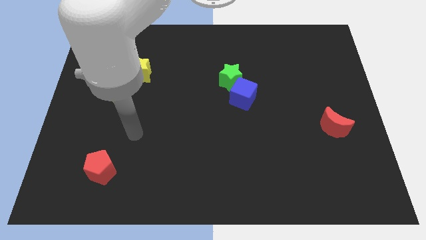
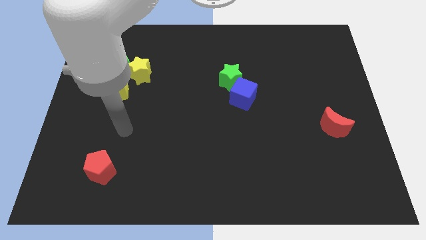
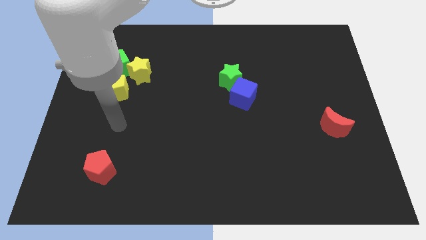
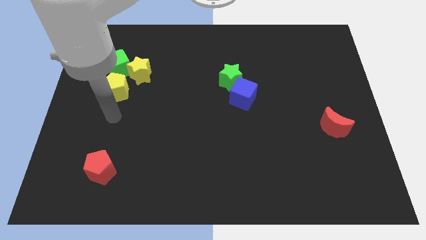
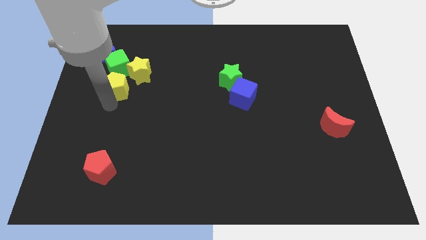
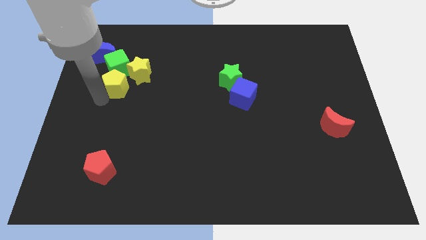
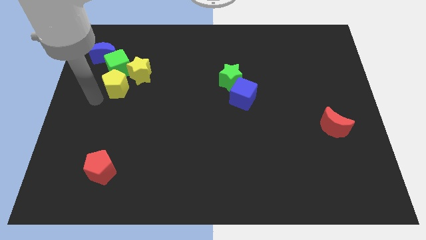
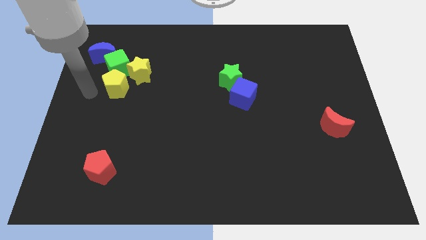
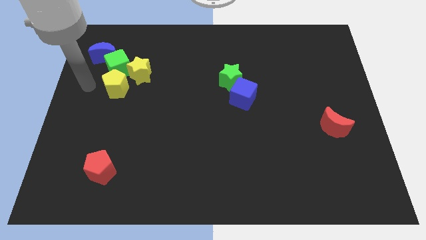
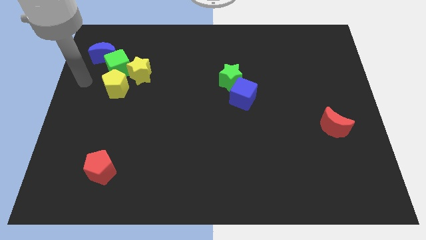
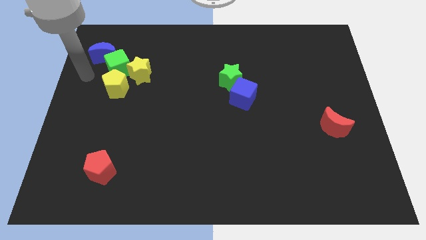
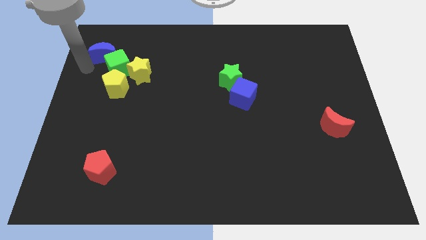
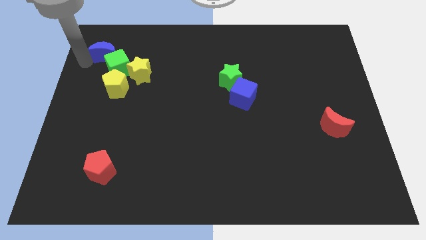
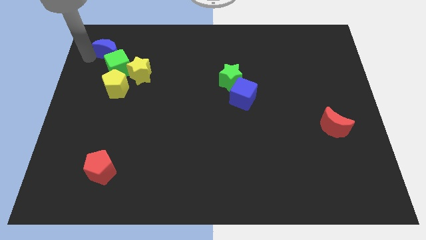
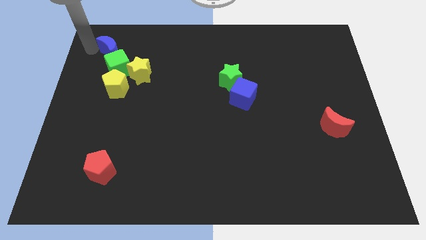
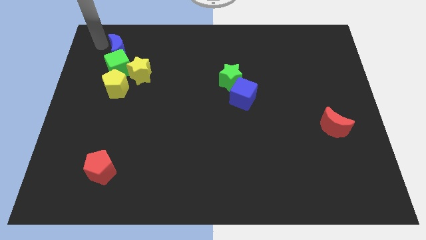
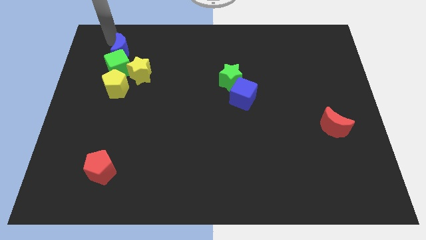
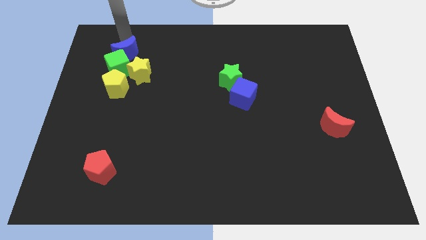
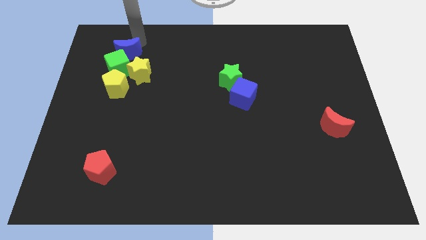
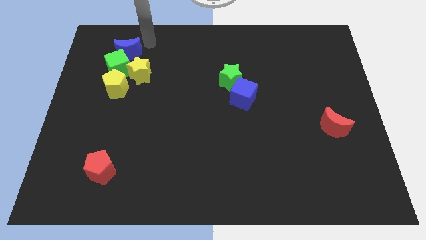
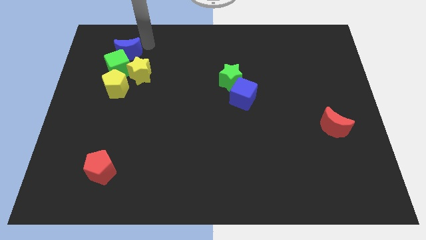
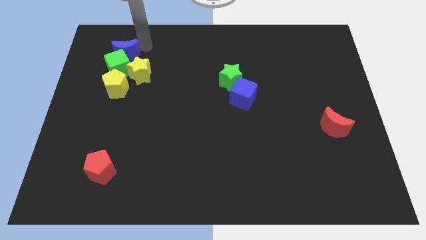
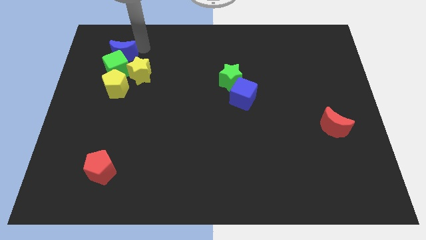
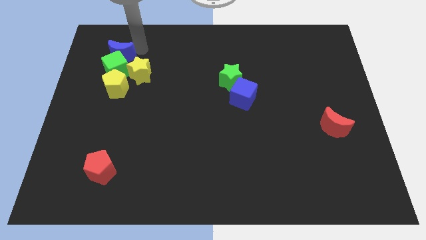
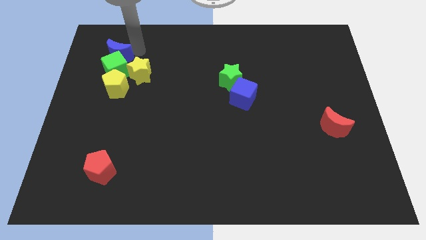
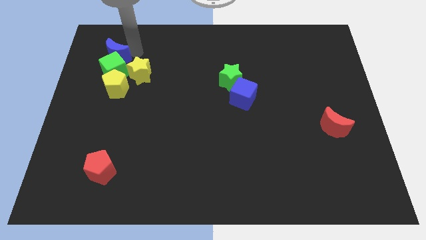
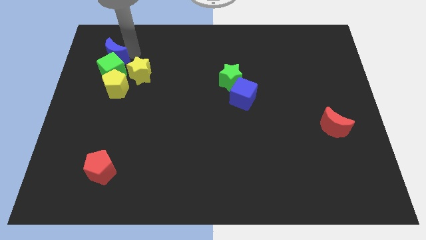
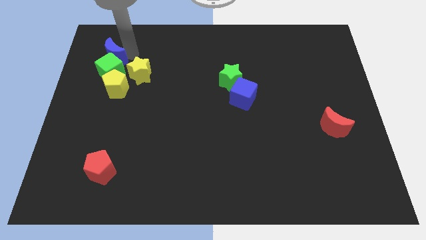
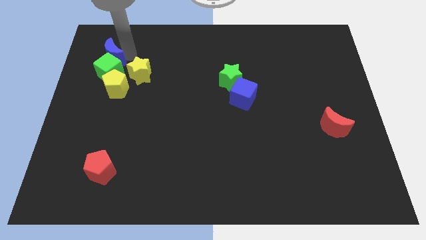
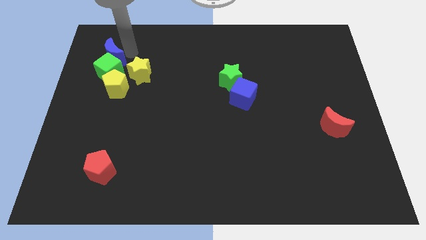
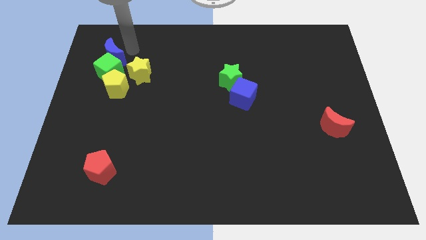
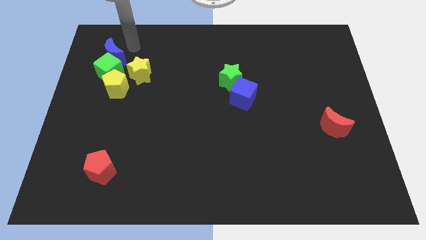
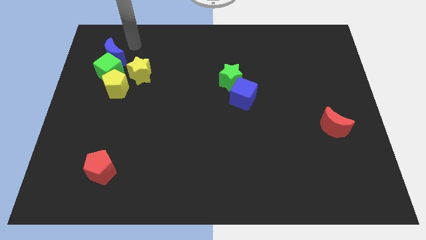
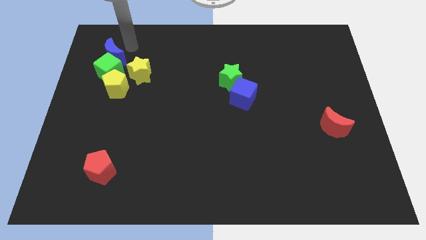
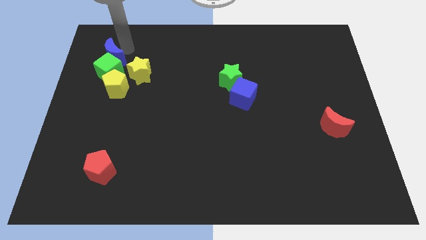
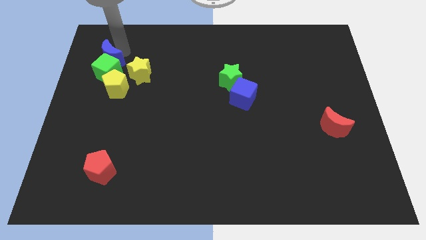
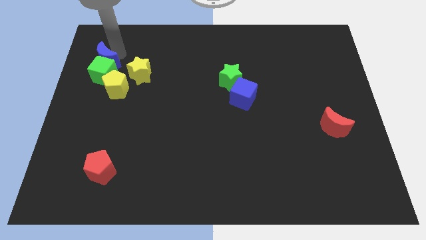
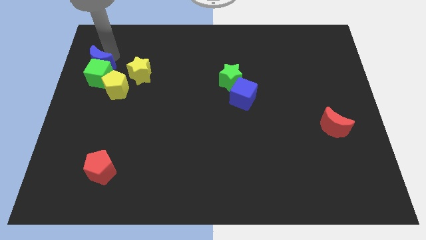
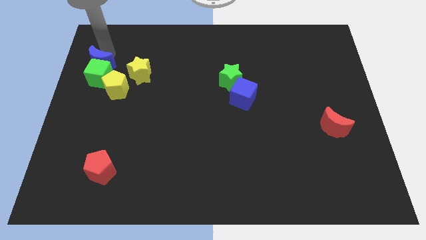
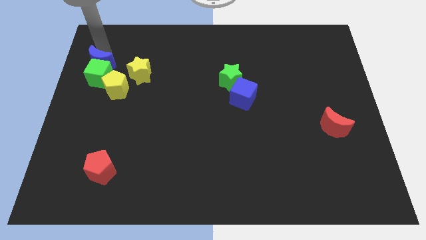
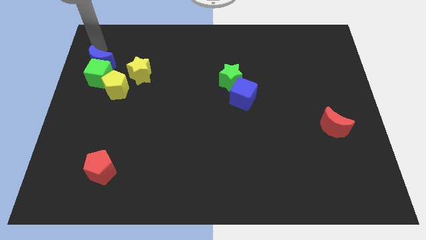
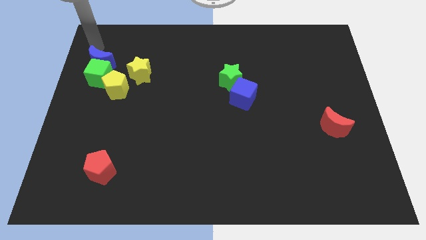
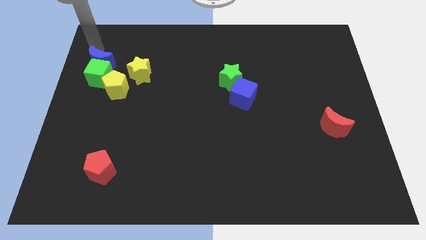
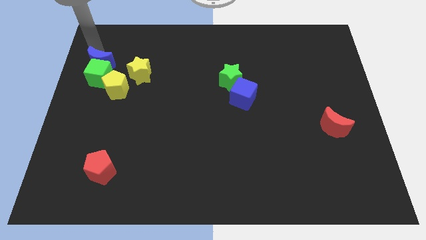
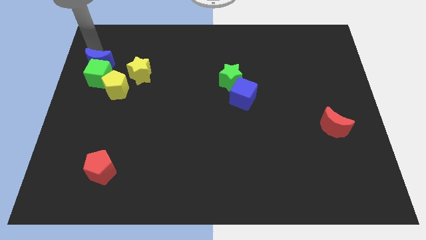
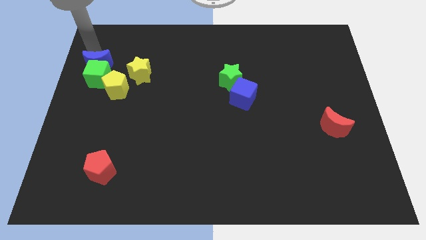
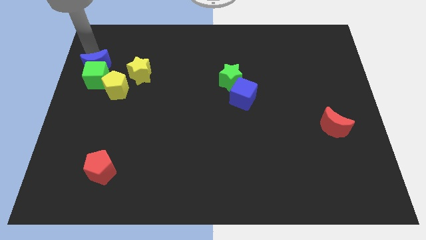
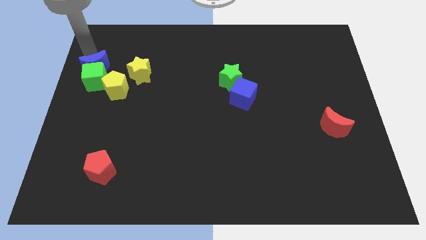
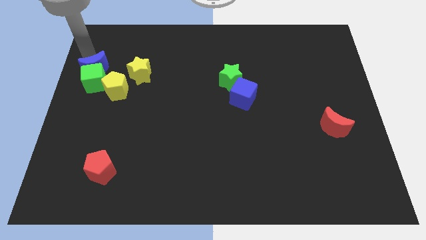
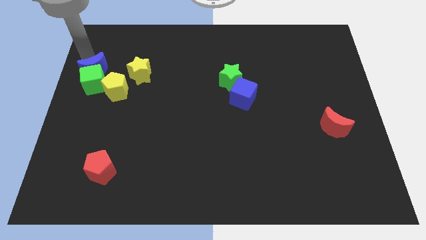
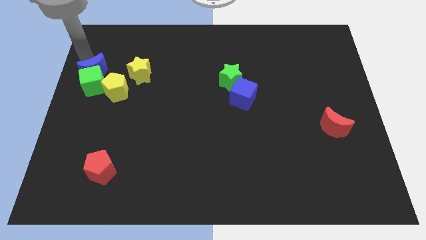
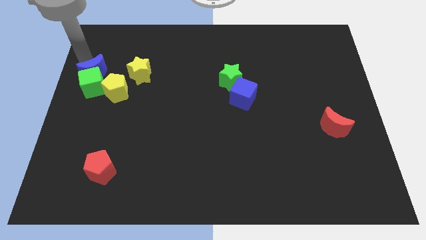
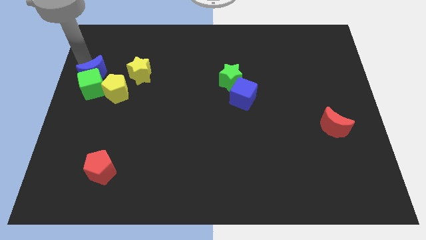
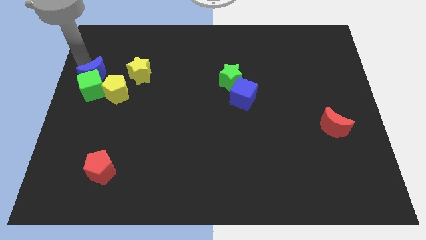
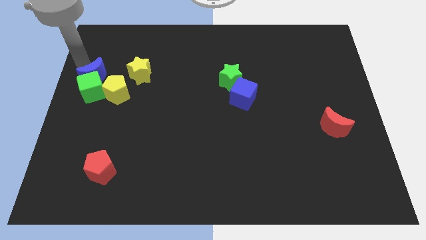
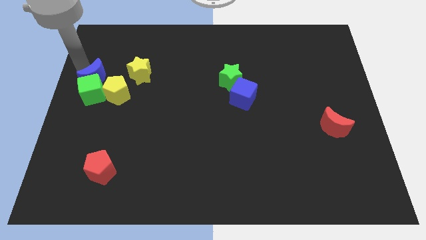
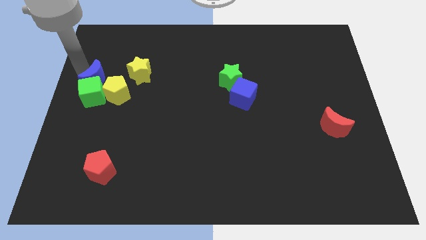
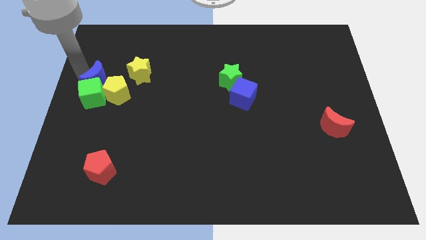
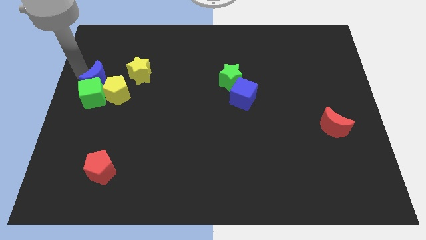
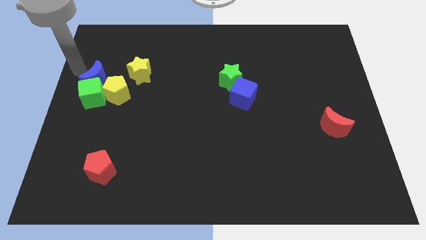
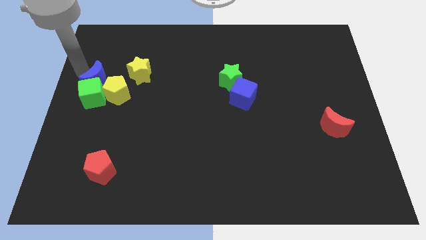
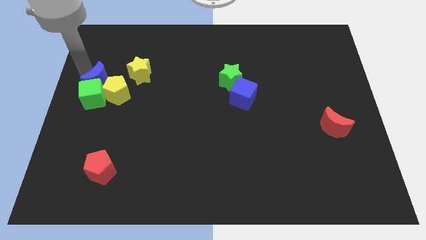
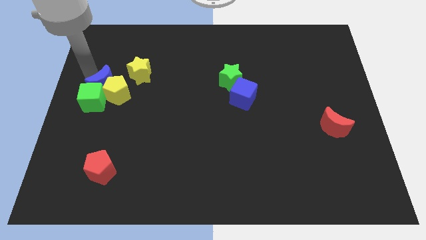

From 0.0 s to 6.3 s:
push the blue moon towards the yellow pentagon

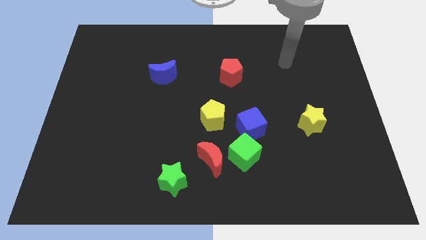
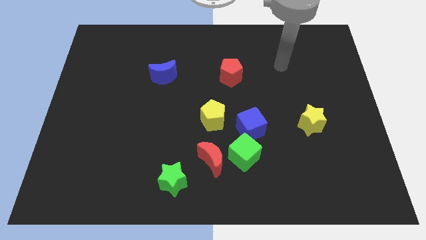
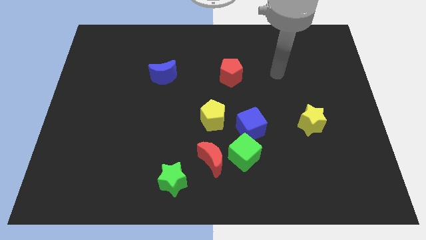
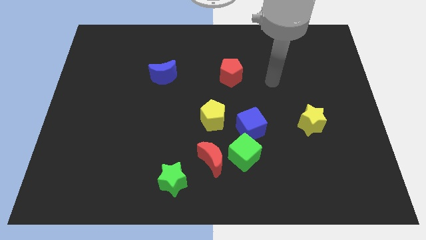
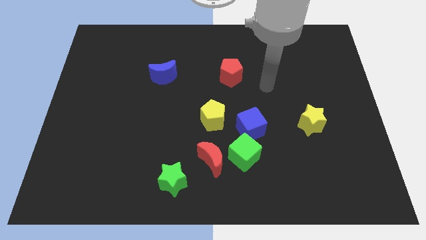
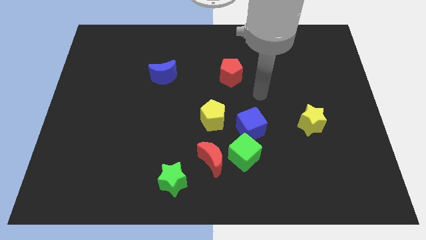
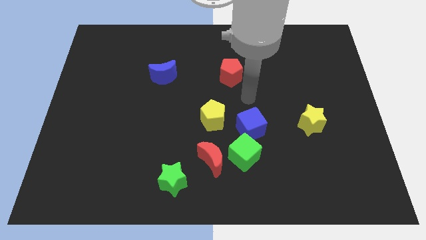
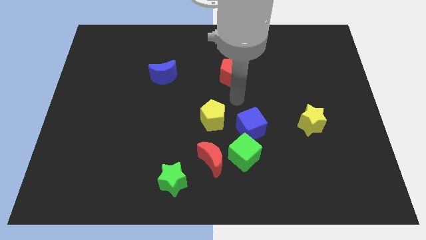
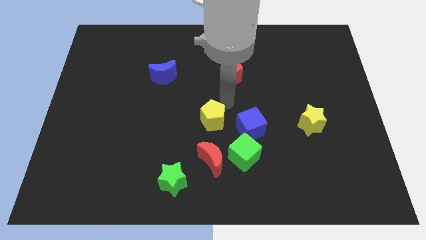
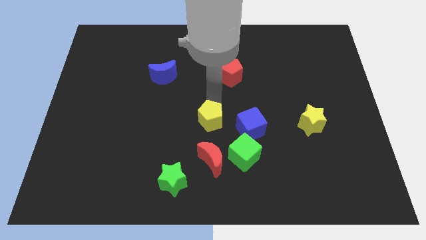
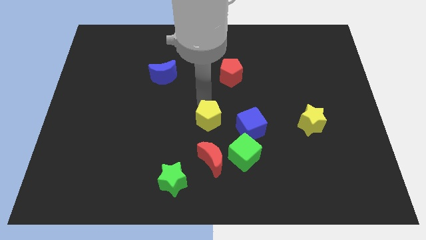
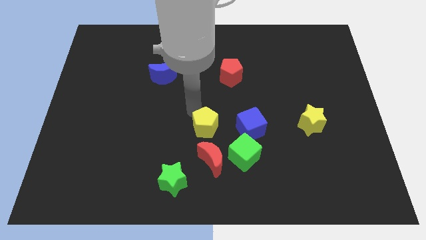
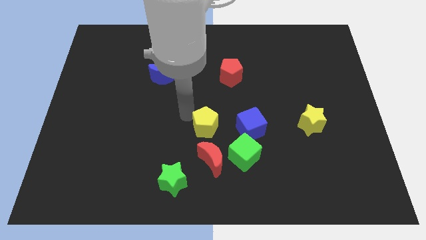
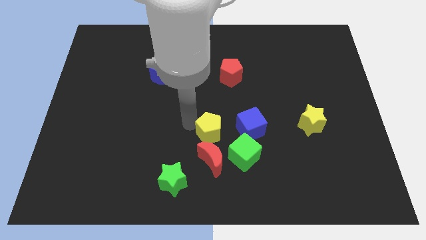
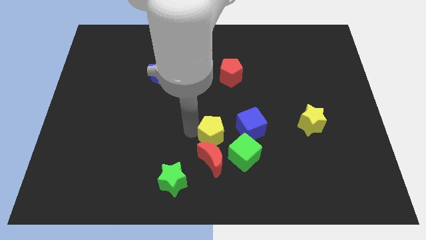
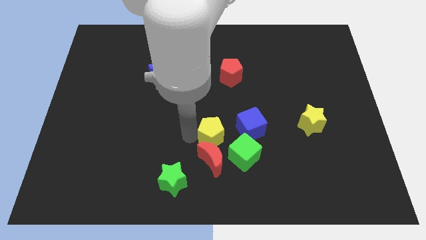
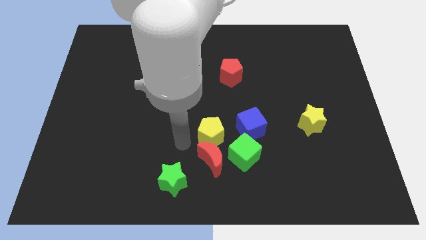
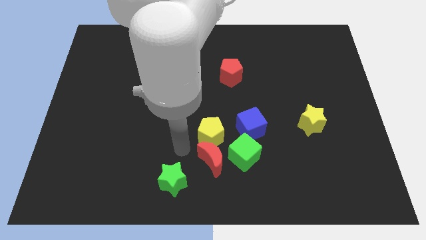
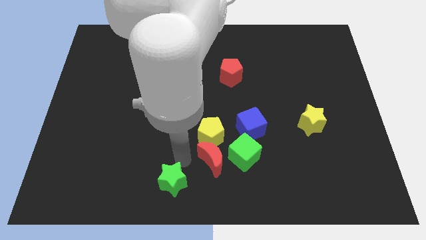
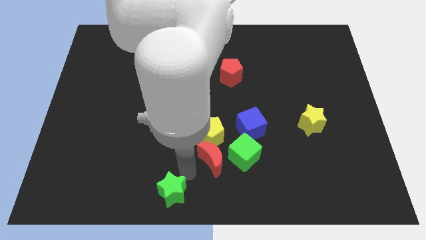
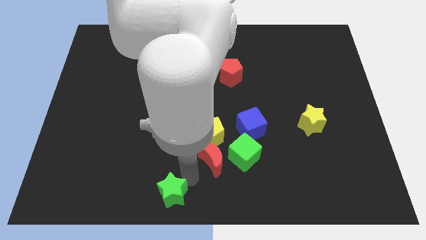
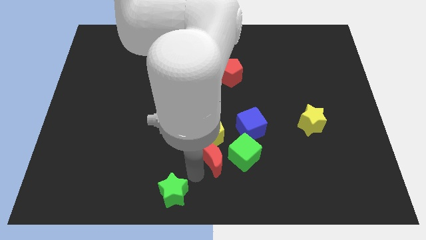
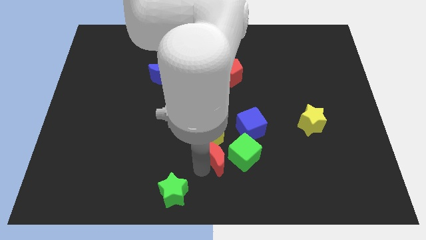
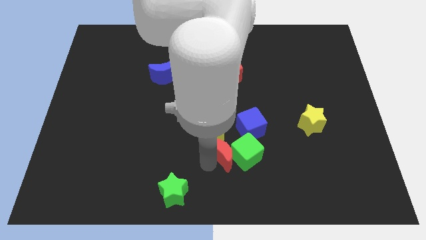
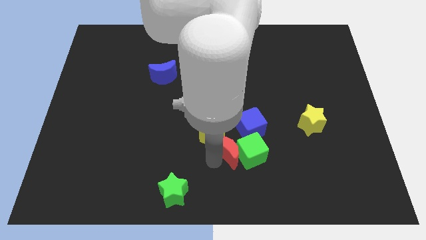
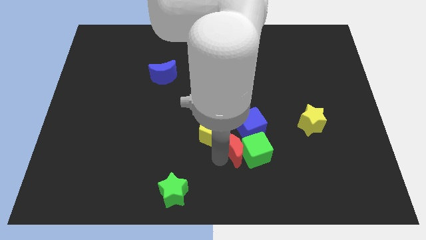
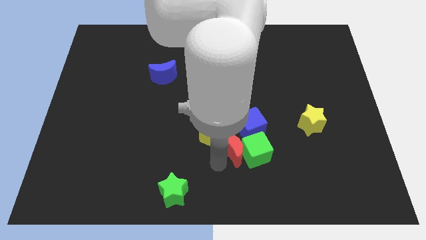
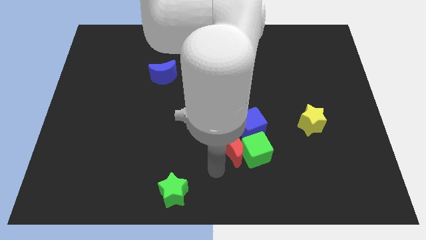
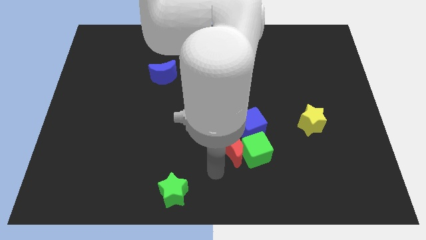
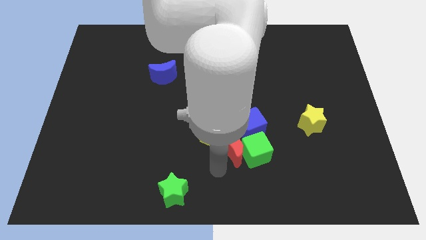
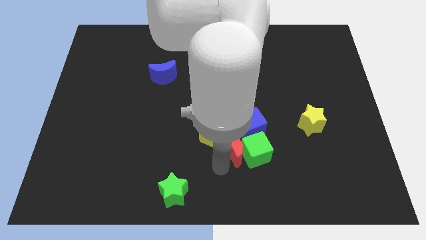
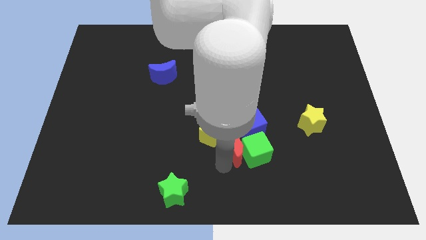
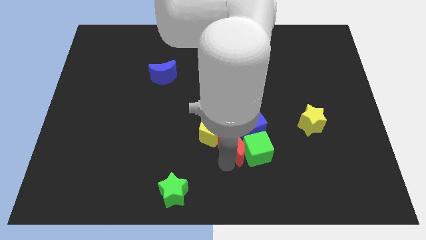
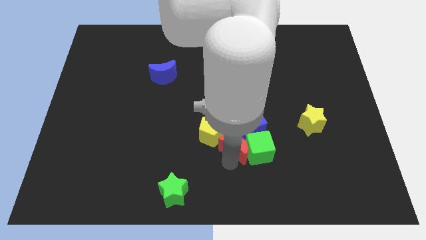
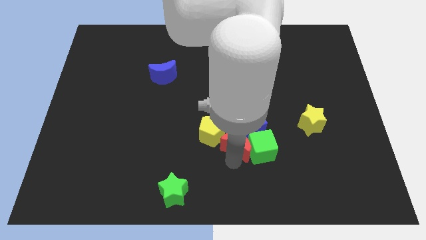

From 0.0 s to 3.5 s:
move the red moon to the blue cube
